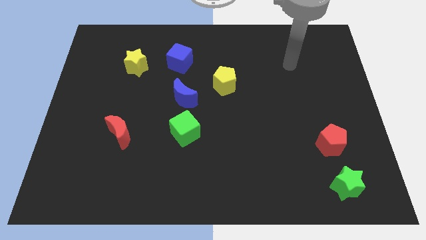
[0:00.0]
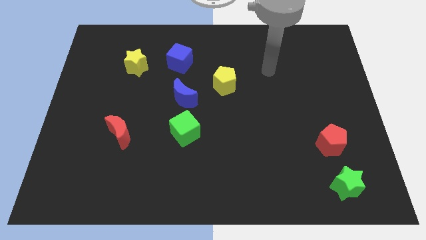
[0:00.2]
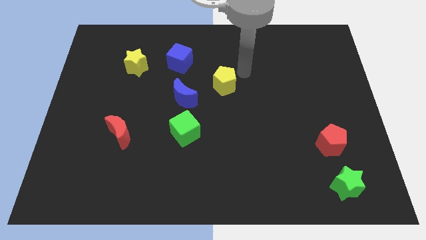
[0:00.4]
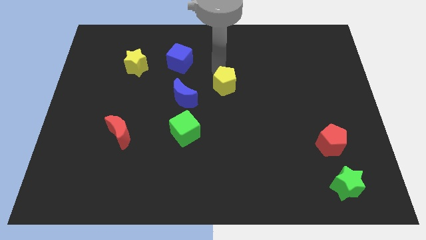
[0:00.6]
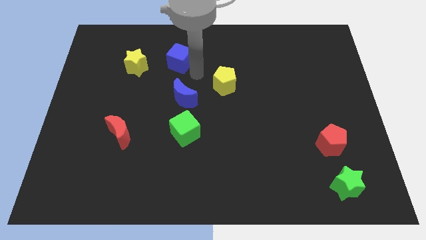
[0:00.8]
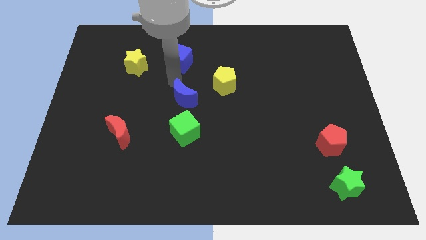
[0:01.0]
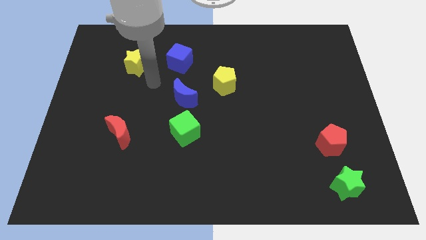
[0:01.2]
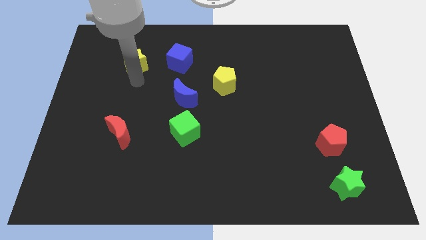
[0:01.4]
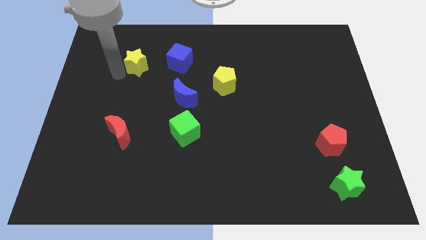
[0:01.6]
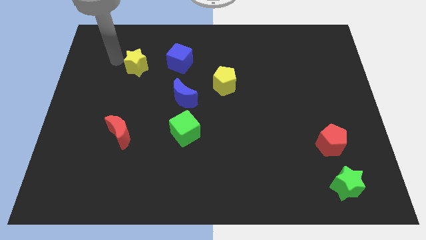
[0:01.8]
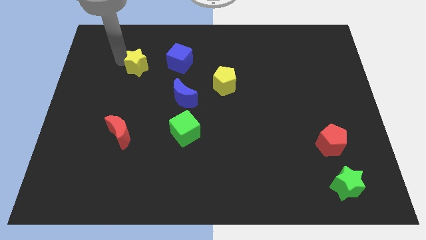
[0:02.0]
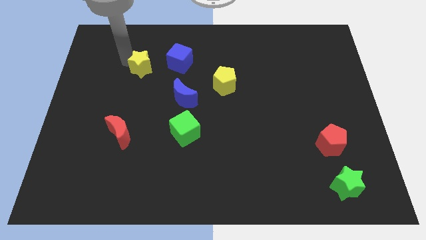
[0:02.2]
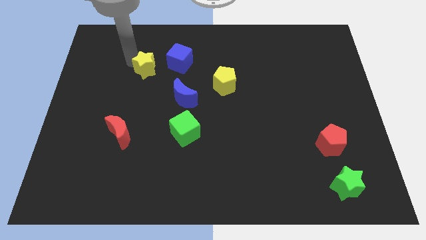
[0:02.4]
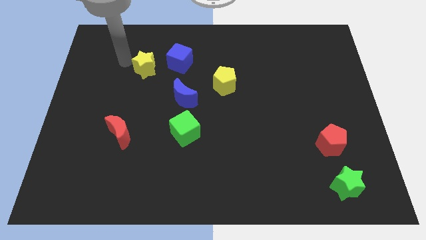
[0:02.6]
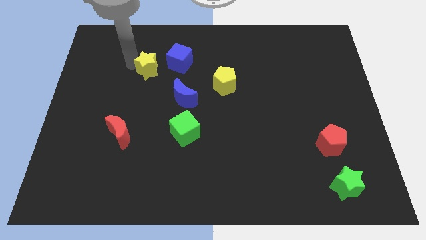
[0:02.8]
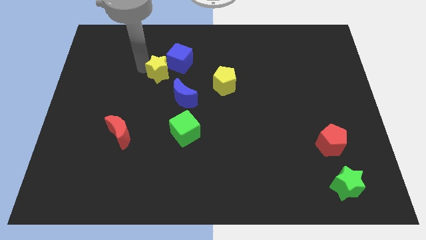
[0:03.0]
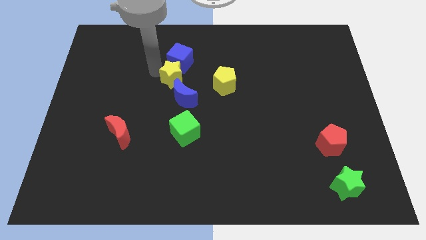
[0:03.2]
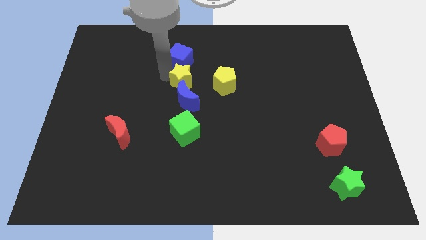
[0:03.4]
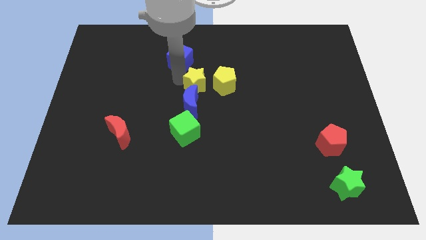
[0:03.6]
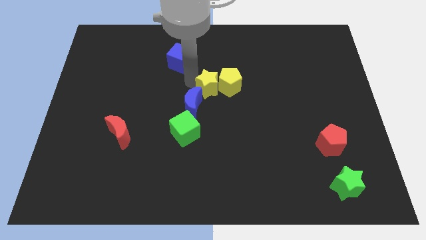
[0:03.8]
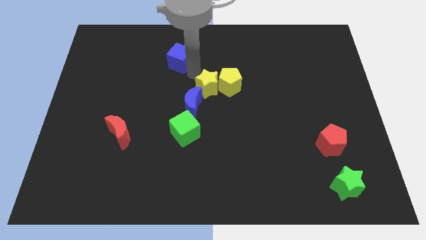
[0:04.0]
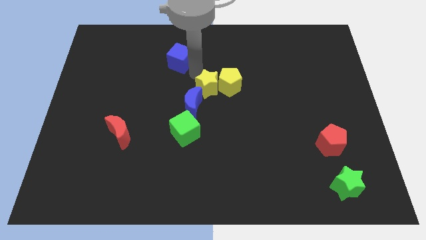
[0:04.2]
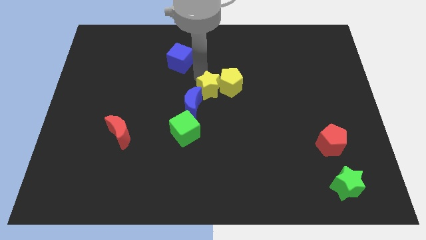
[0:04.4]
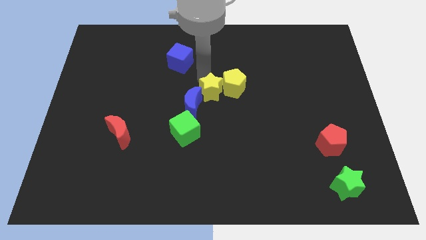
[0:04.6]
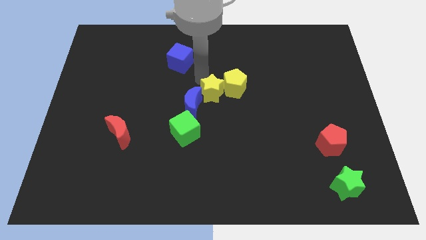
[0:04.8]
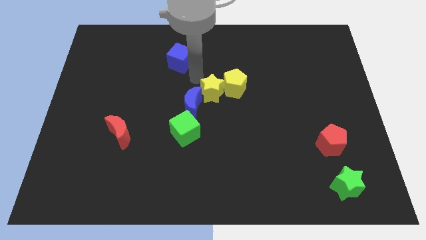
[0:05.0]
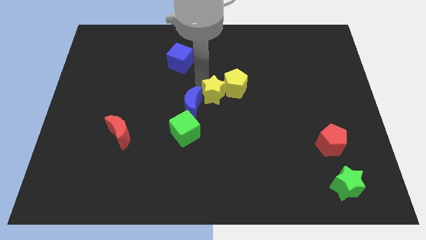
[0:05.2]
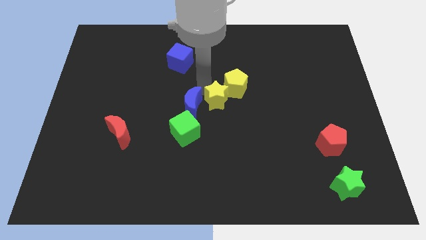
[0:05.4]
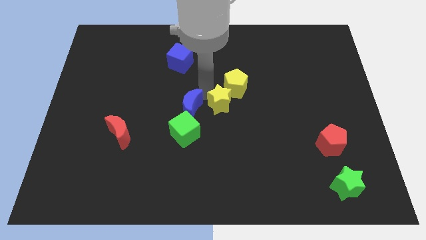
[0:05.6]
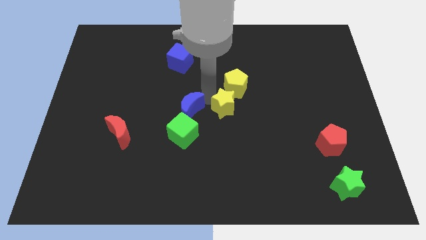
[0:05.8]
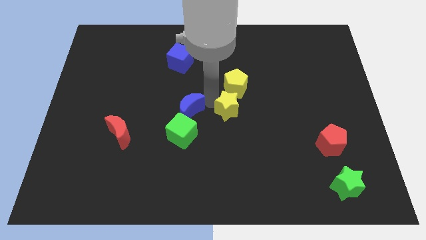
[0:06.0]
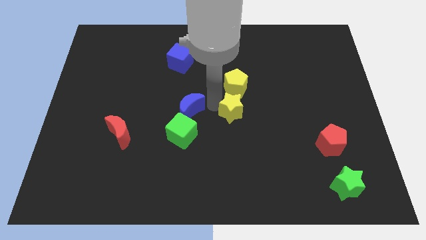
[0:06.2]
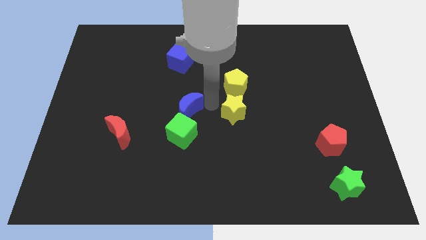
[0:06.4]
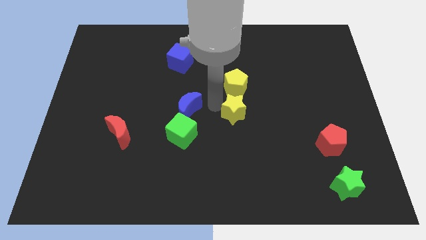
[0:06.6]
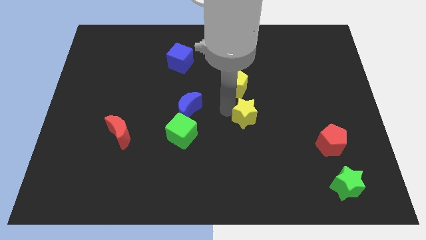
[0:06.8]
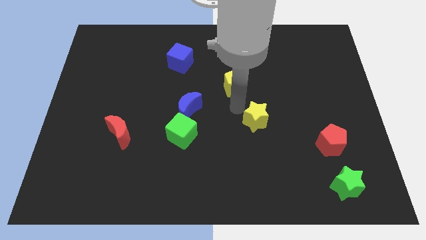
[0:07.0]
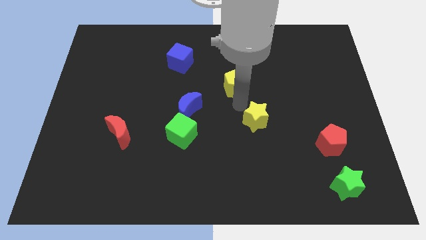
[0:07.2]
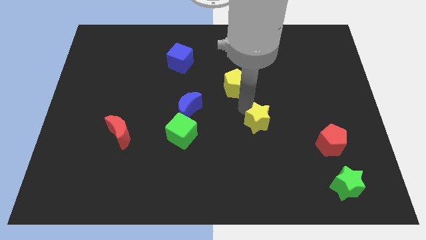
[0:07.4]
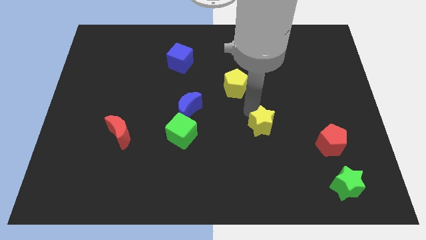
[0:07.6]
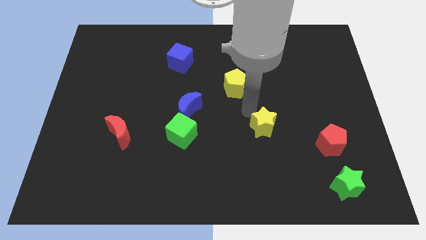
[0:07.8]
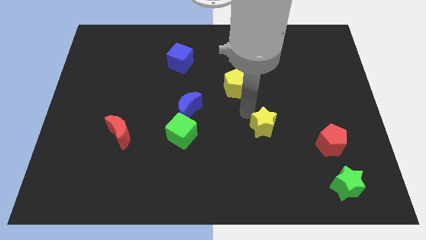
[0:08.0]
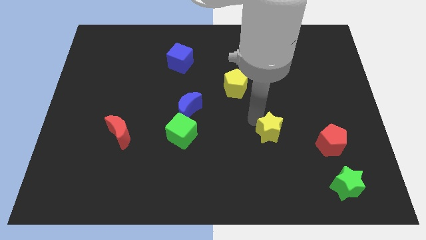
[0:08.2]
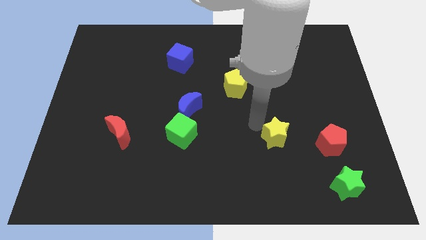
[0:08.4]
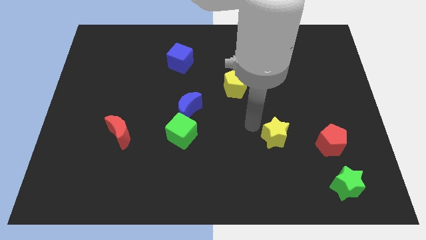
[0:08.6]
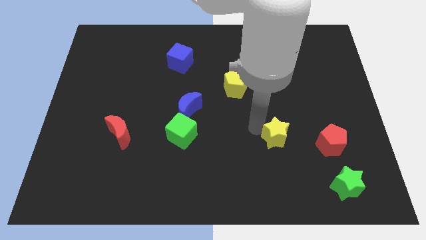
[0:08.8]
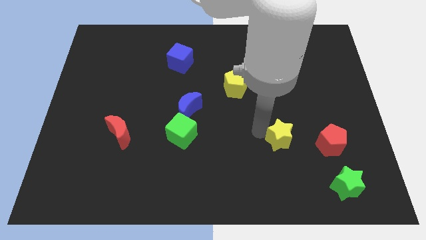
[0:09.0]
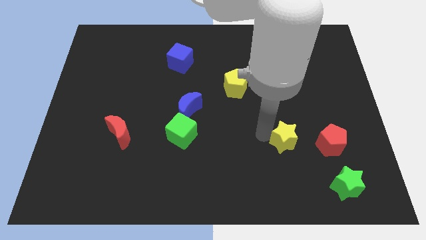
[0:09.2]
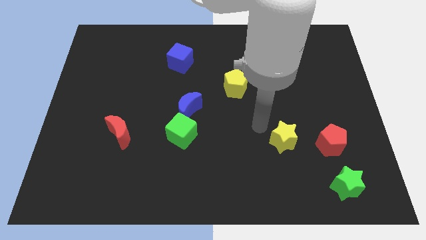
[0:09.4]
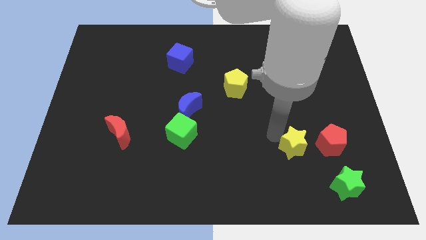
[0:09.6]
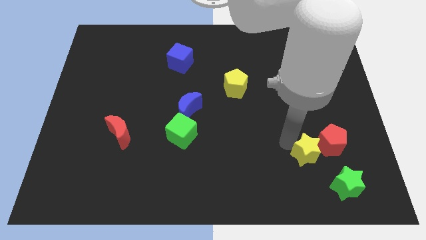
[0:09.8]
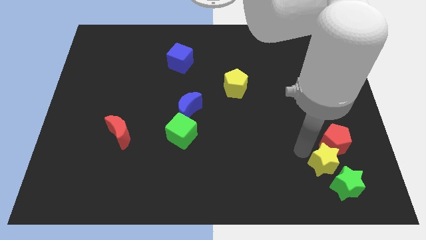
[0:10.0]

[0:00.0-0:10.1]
put the yellow star close to the green star

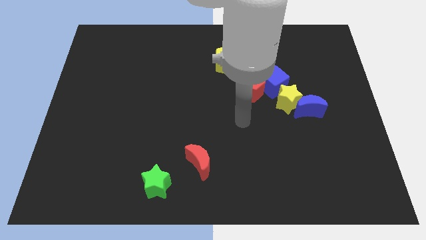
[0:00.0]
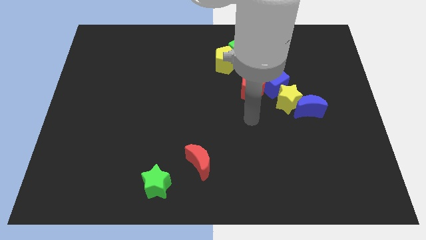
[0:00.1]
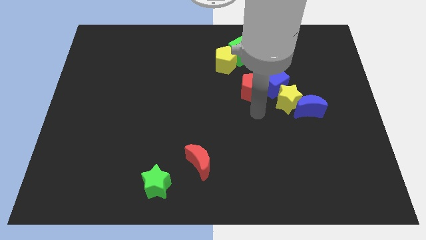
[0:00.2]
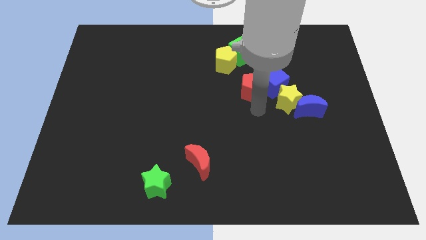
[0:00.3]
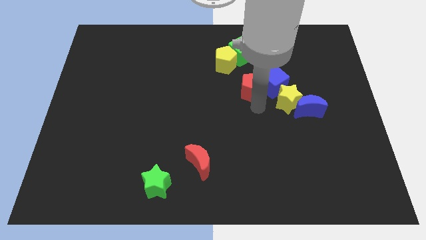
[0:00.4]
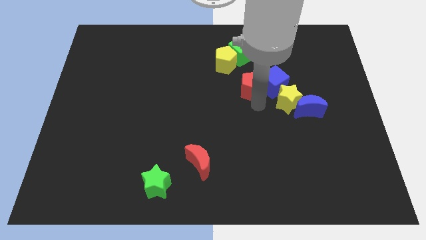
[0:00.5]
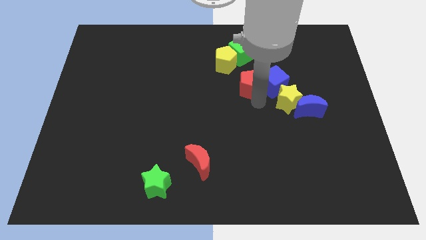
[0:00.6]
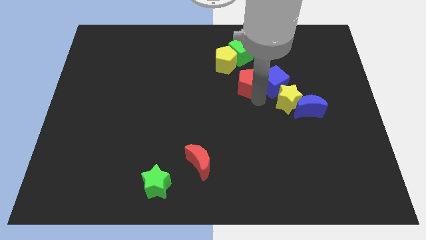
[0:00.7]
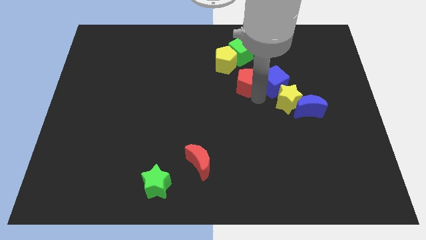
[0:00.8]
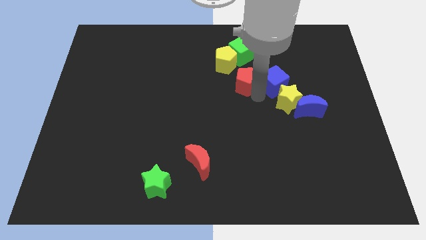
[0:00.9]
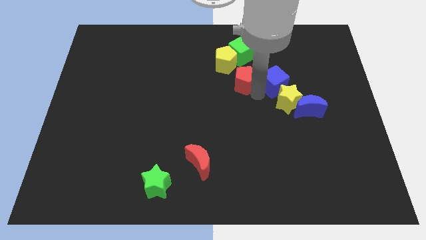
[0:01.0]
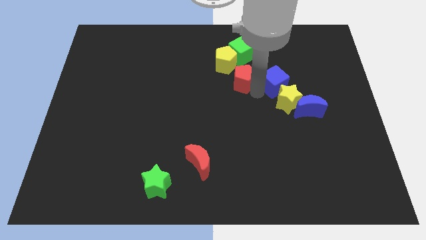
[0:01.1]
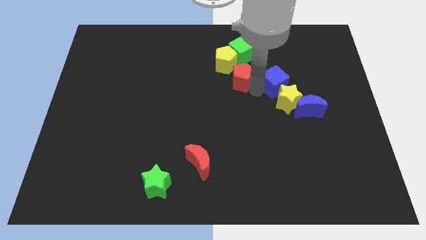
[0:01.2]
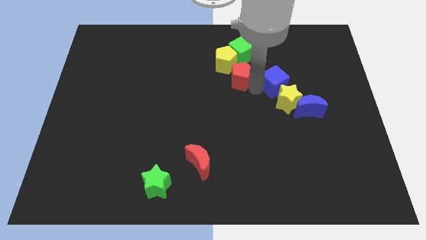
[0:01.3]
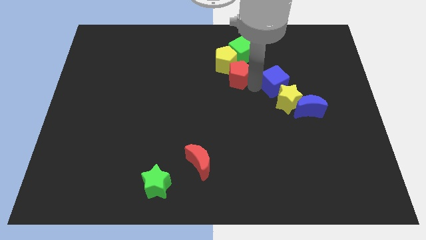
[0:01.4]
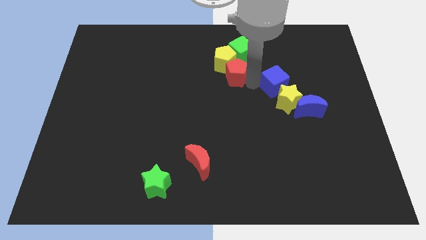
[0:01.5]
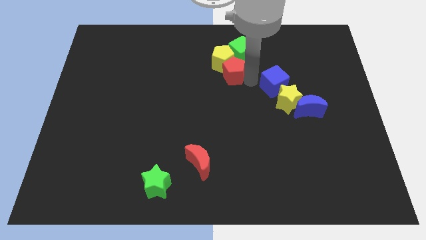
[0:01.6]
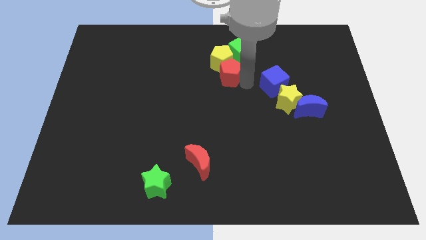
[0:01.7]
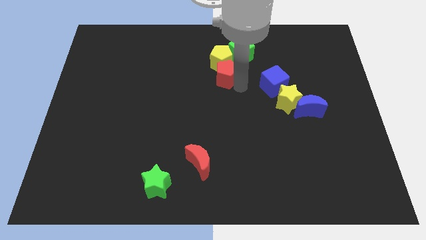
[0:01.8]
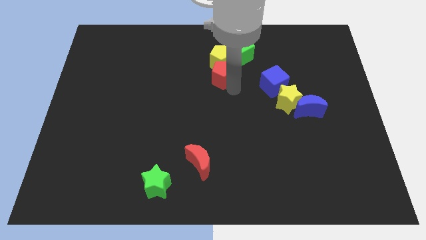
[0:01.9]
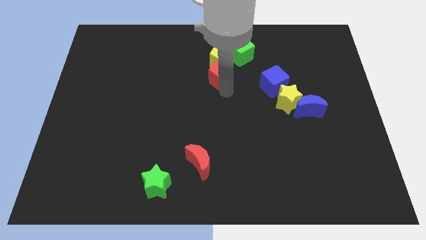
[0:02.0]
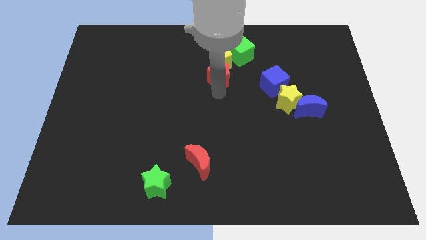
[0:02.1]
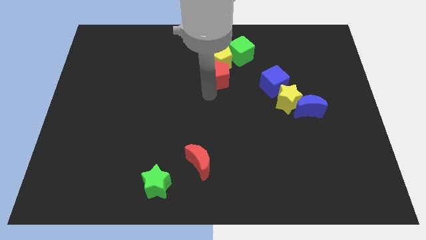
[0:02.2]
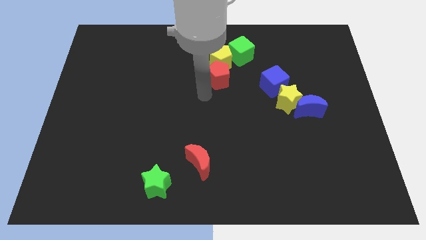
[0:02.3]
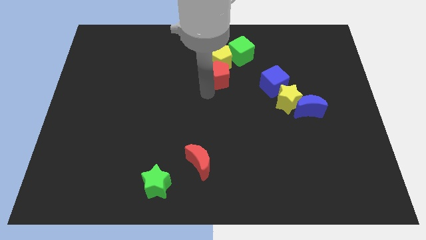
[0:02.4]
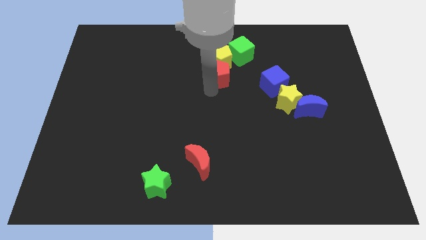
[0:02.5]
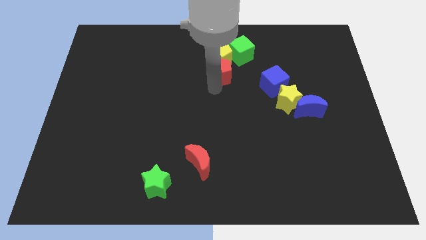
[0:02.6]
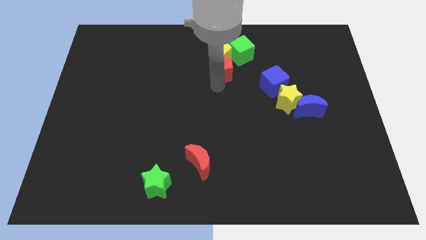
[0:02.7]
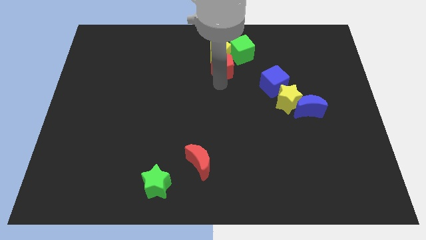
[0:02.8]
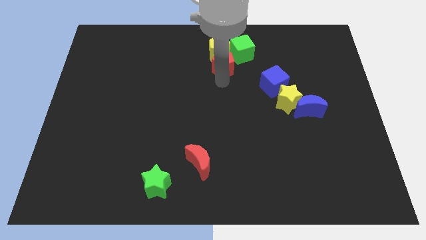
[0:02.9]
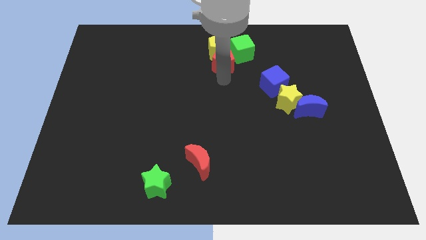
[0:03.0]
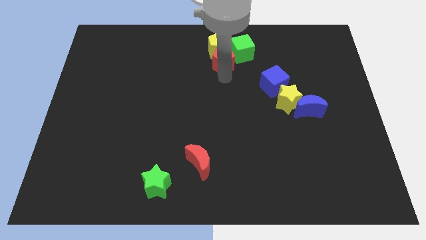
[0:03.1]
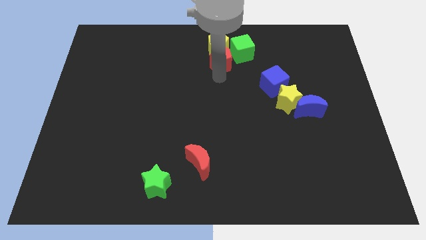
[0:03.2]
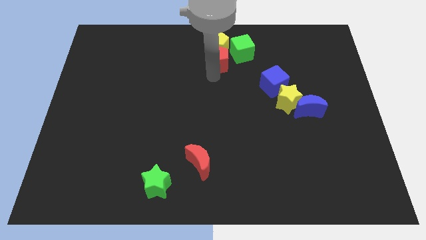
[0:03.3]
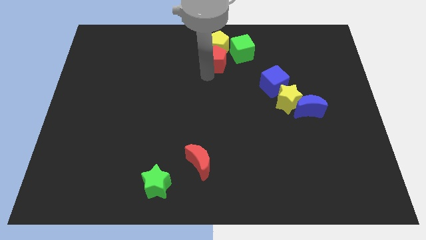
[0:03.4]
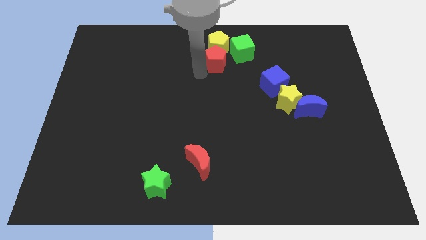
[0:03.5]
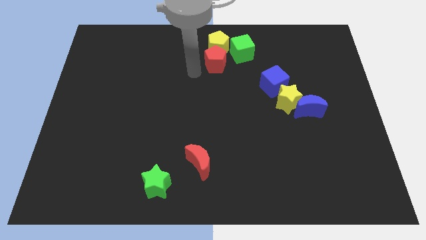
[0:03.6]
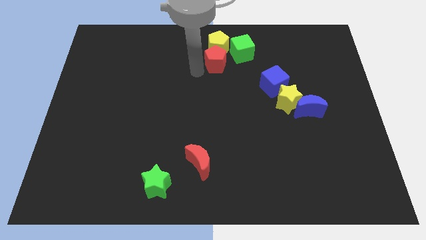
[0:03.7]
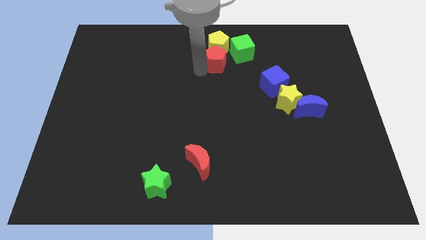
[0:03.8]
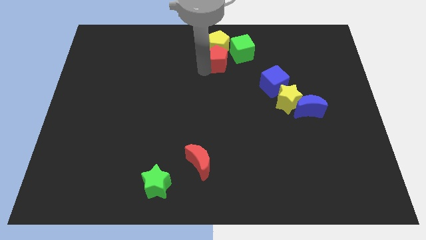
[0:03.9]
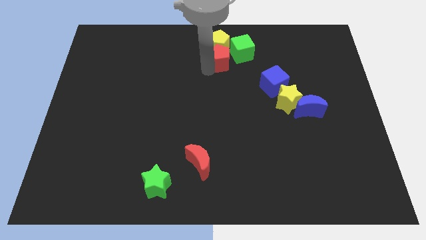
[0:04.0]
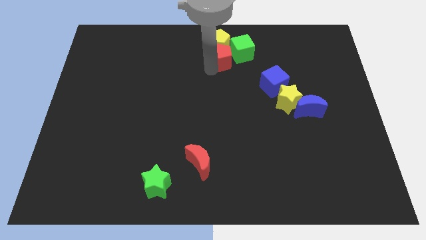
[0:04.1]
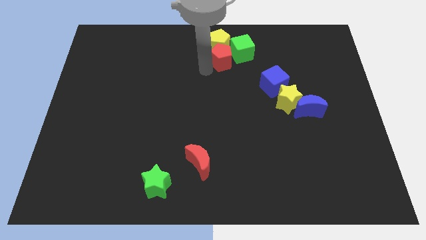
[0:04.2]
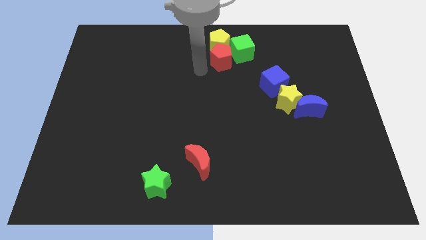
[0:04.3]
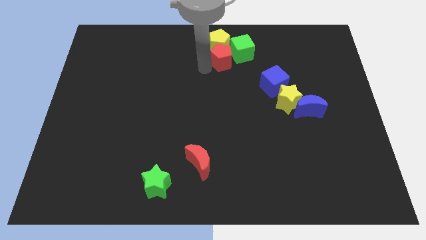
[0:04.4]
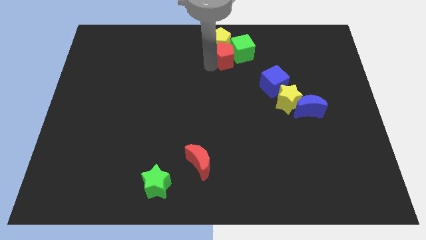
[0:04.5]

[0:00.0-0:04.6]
push the red pentagon to the green cube
